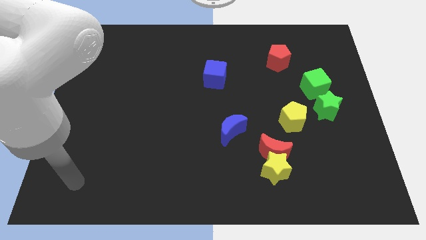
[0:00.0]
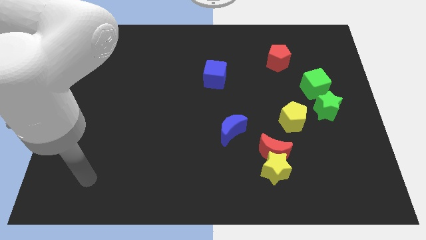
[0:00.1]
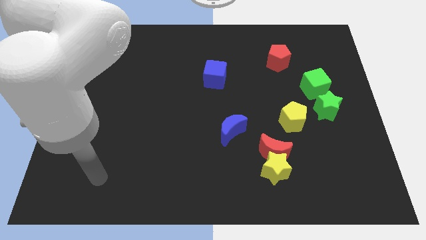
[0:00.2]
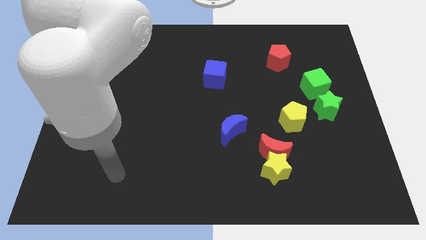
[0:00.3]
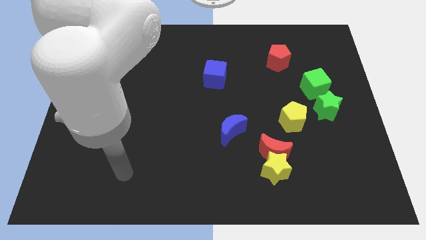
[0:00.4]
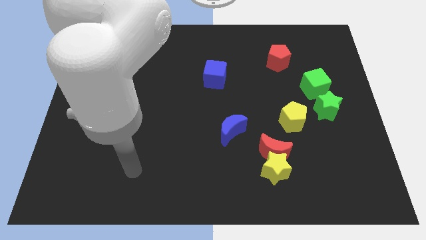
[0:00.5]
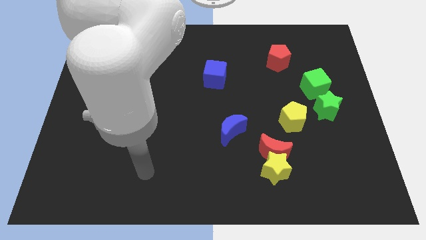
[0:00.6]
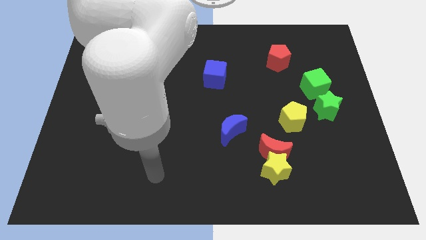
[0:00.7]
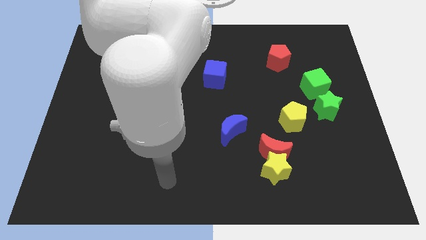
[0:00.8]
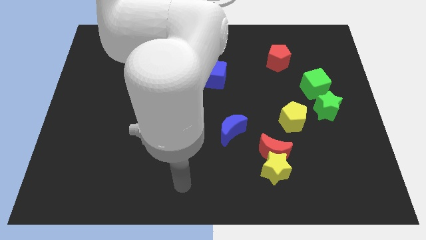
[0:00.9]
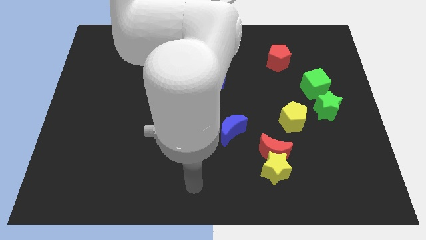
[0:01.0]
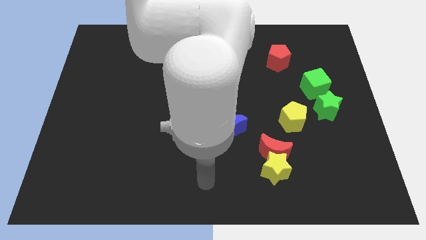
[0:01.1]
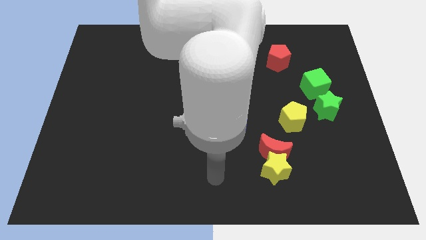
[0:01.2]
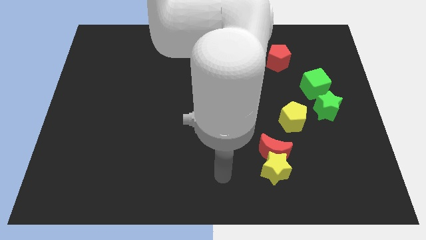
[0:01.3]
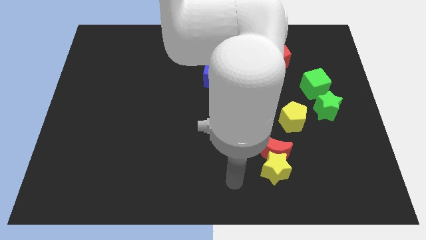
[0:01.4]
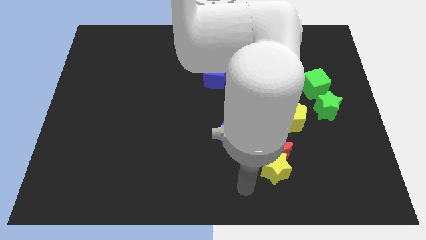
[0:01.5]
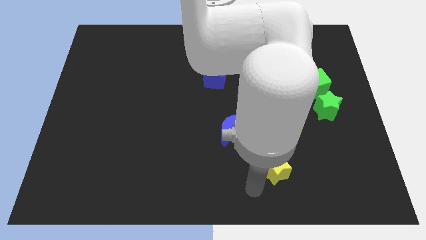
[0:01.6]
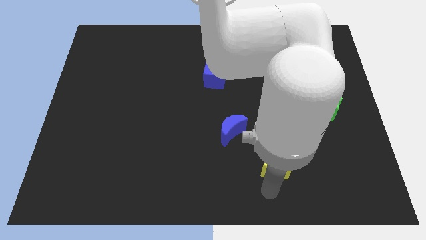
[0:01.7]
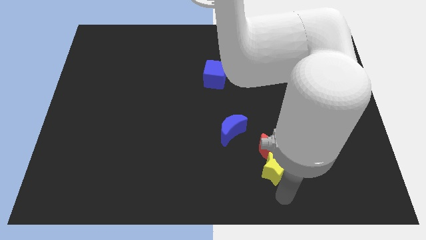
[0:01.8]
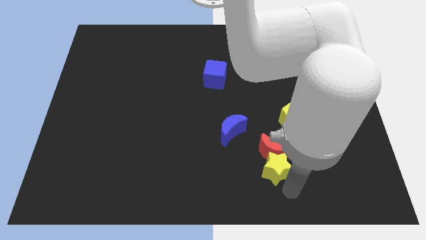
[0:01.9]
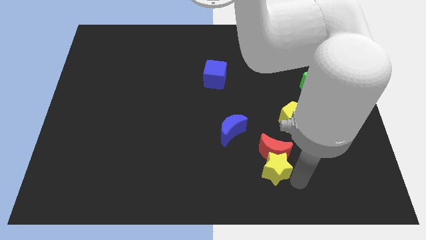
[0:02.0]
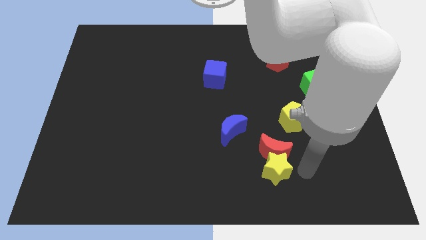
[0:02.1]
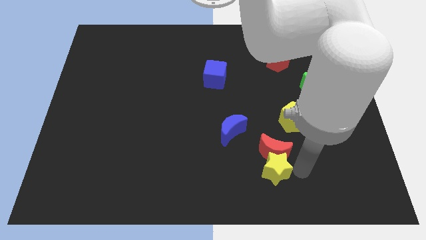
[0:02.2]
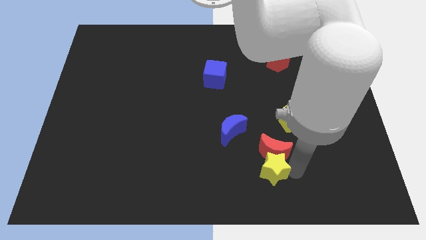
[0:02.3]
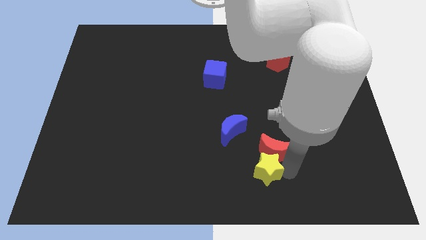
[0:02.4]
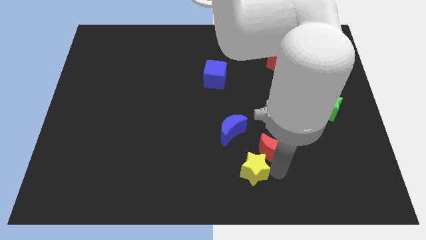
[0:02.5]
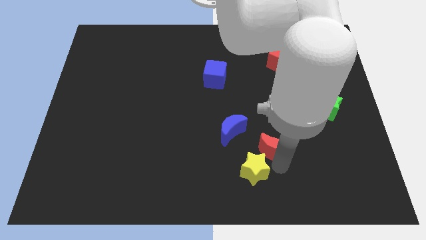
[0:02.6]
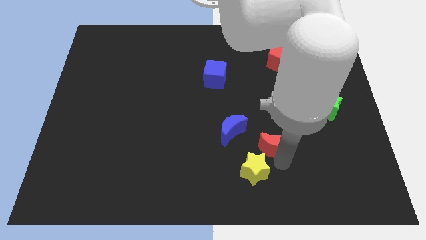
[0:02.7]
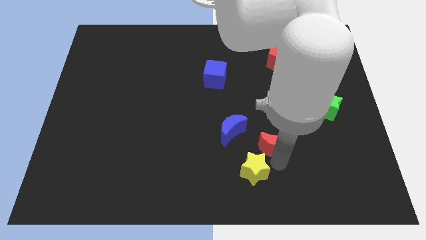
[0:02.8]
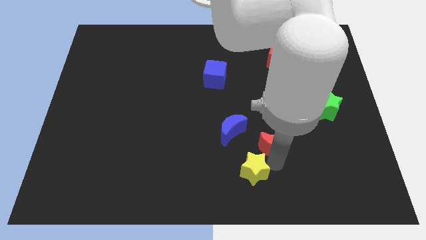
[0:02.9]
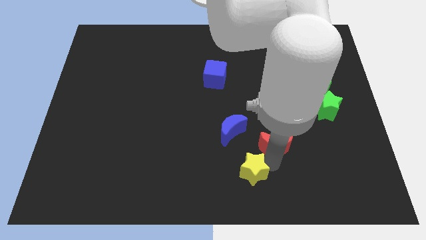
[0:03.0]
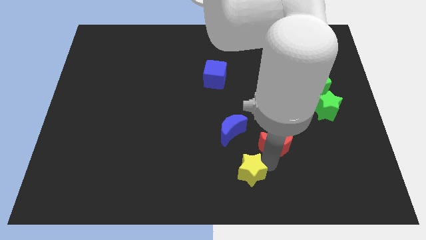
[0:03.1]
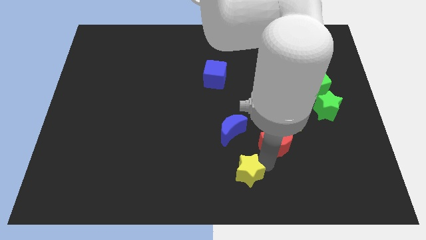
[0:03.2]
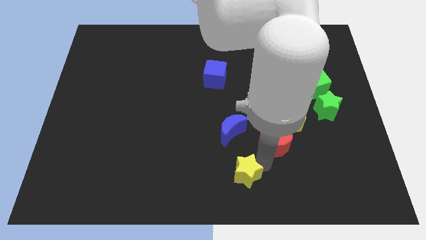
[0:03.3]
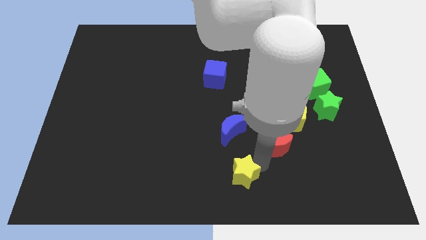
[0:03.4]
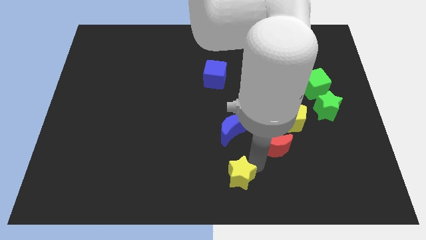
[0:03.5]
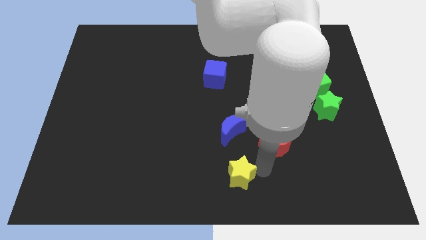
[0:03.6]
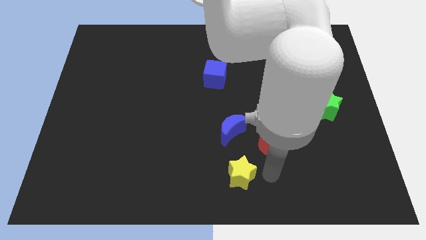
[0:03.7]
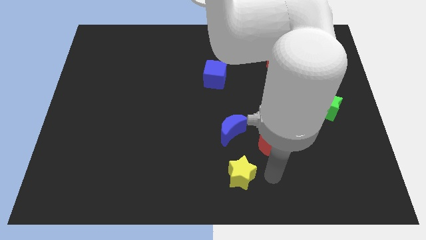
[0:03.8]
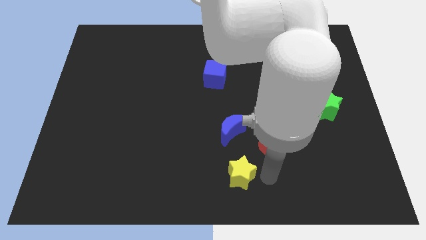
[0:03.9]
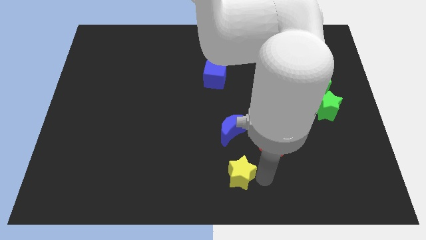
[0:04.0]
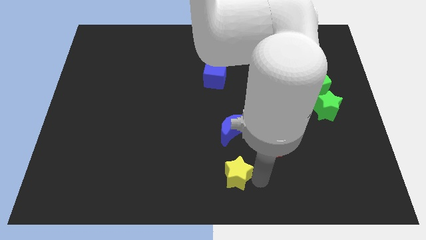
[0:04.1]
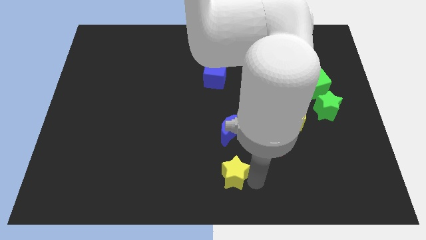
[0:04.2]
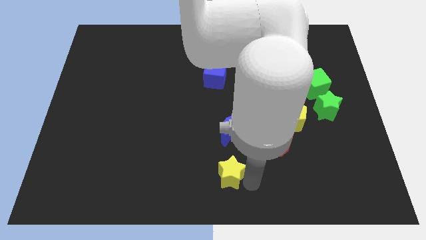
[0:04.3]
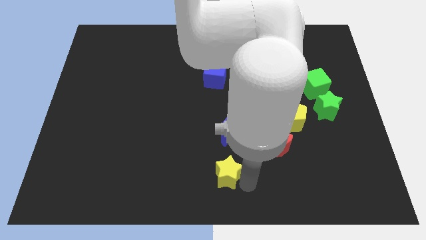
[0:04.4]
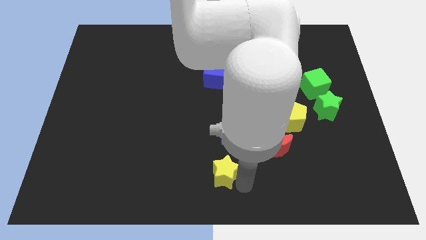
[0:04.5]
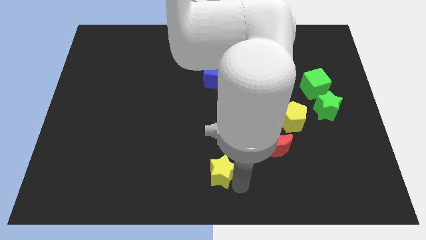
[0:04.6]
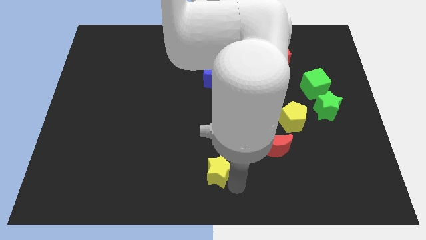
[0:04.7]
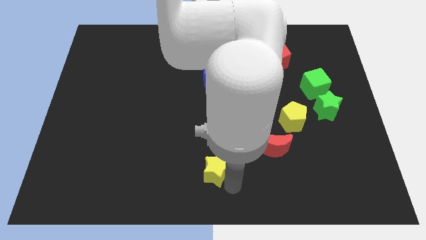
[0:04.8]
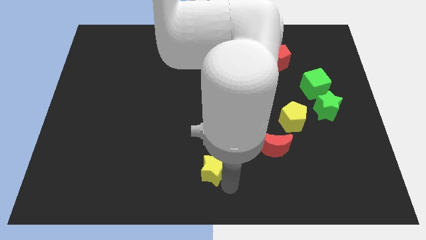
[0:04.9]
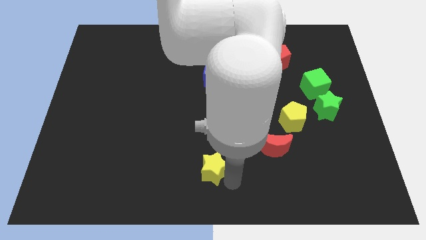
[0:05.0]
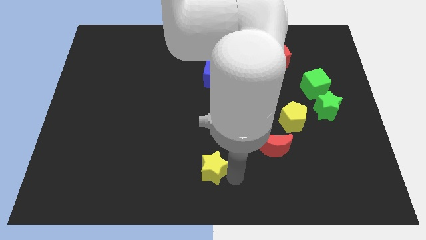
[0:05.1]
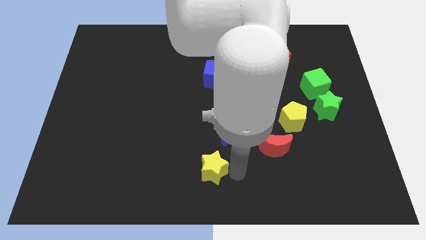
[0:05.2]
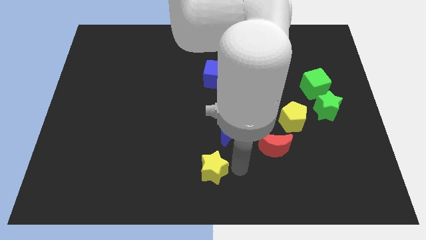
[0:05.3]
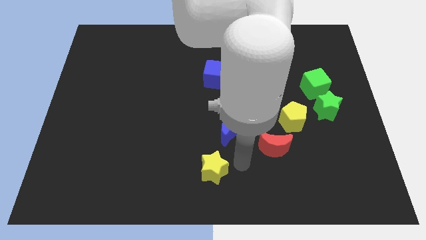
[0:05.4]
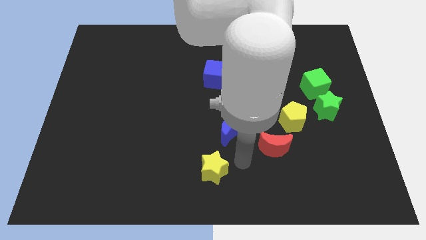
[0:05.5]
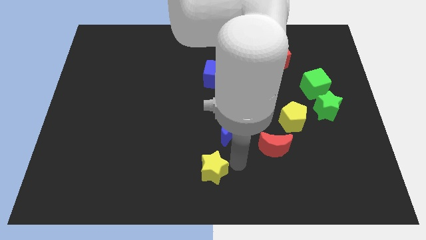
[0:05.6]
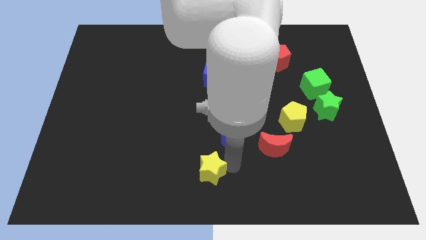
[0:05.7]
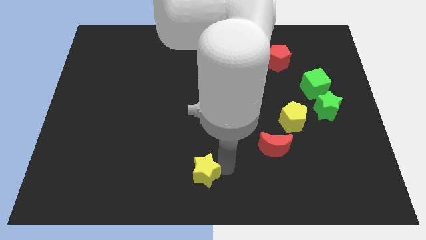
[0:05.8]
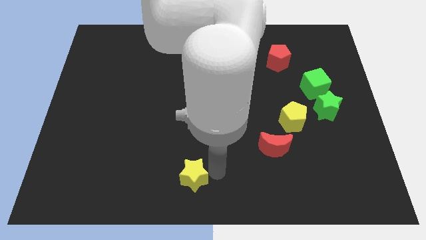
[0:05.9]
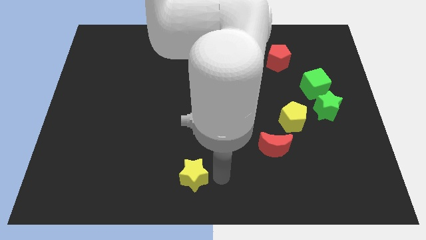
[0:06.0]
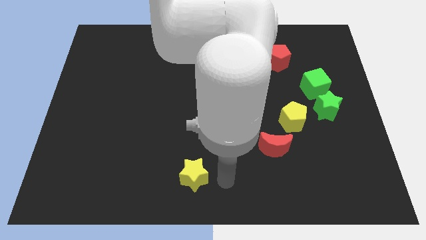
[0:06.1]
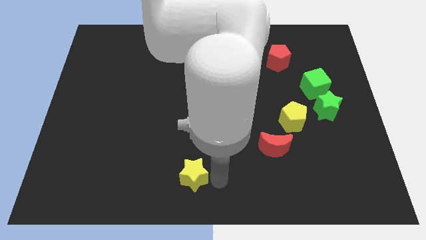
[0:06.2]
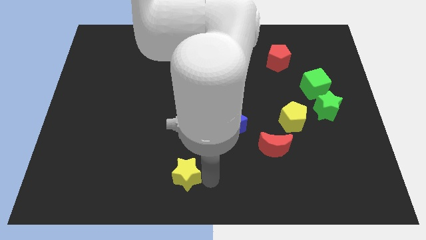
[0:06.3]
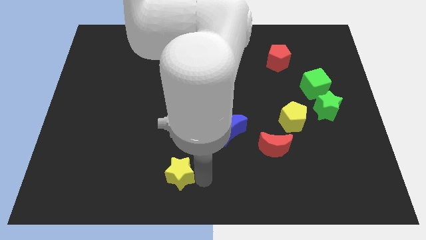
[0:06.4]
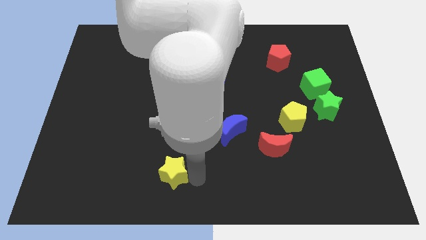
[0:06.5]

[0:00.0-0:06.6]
push the yellow star left

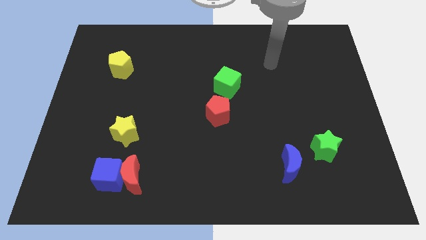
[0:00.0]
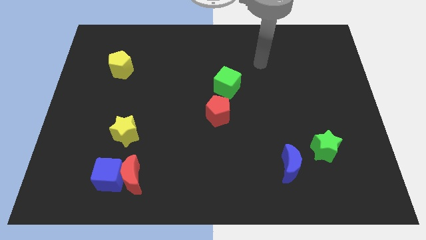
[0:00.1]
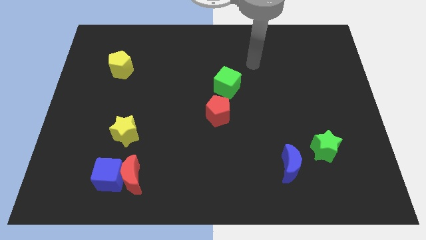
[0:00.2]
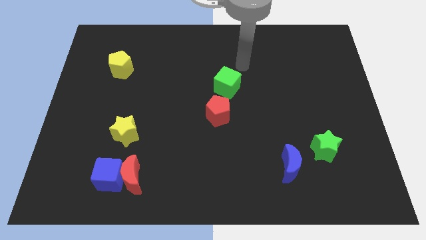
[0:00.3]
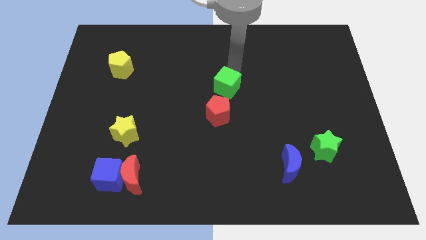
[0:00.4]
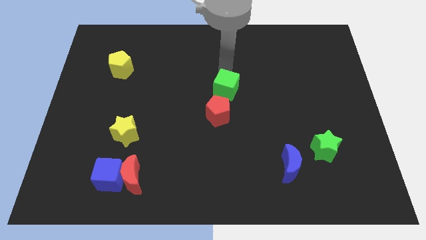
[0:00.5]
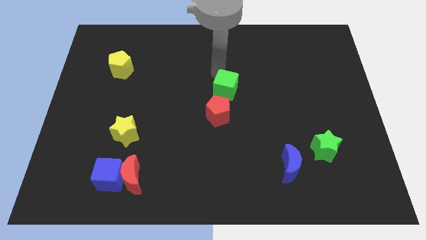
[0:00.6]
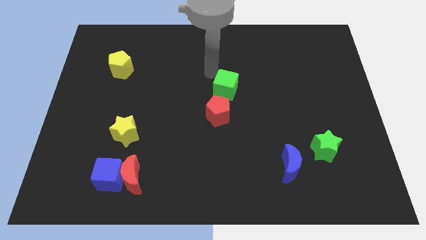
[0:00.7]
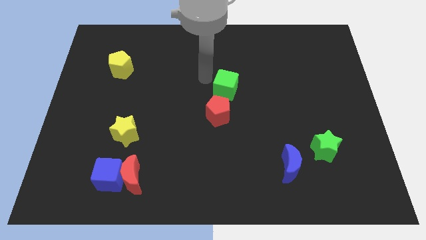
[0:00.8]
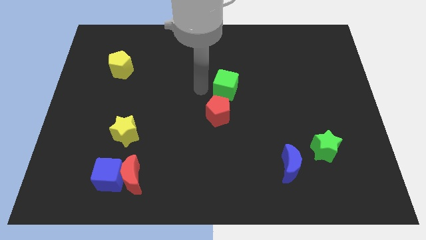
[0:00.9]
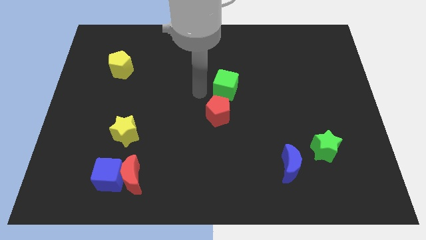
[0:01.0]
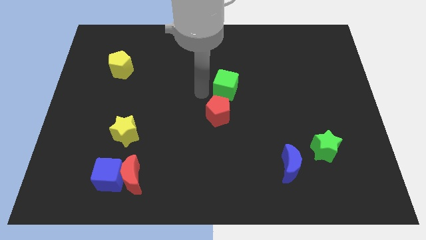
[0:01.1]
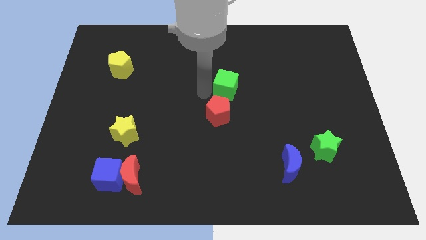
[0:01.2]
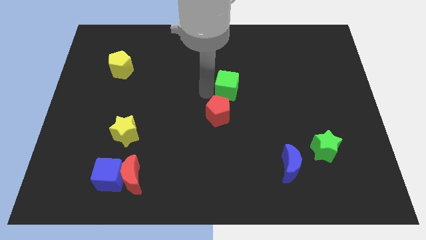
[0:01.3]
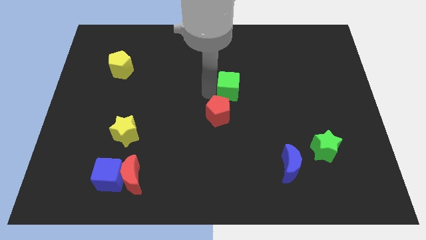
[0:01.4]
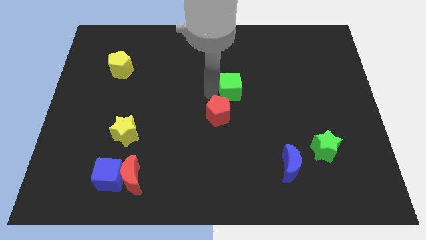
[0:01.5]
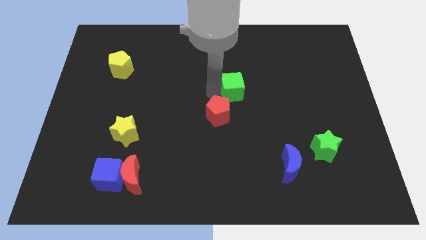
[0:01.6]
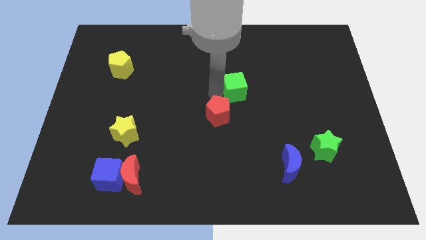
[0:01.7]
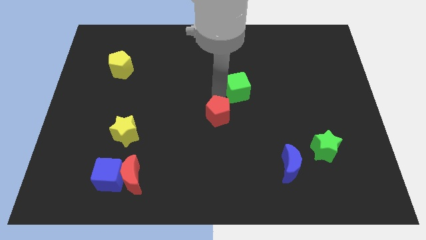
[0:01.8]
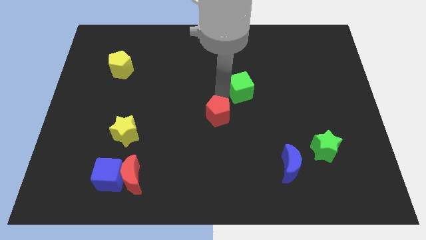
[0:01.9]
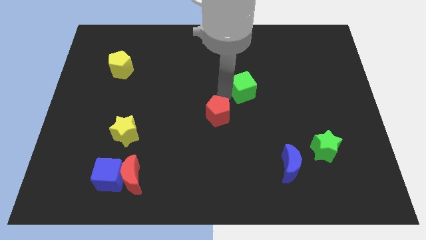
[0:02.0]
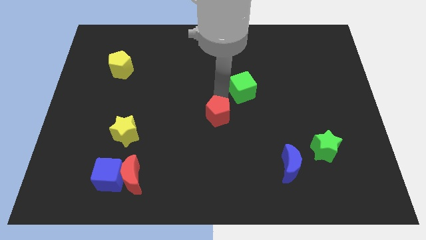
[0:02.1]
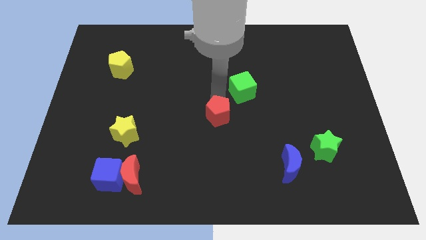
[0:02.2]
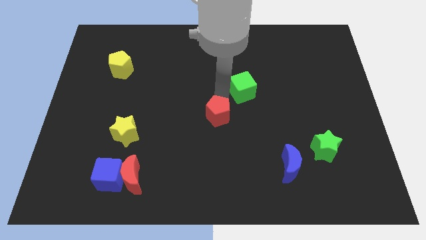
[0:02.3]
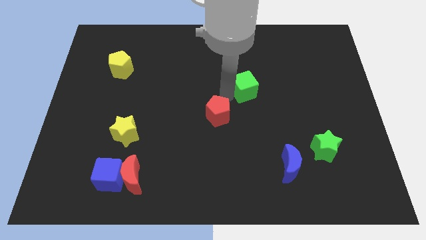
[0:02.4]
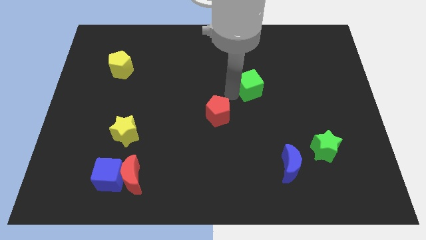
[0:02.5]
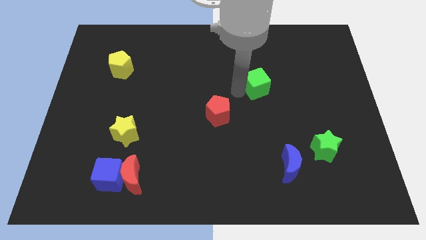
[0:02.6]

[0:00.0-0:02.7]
slightly move the green cube right
